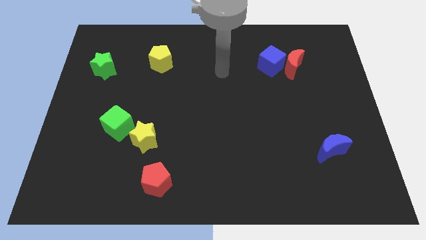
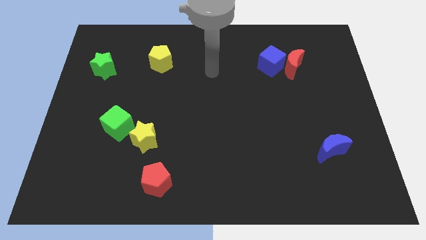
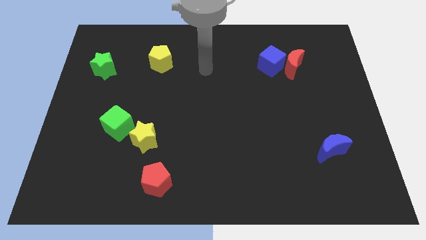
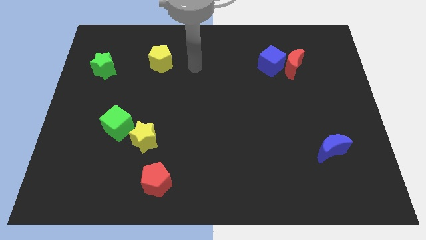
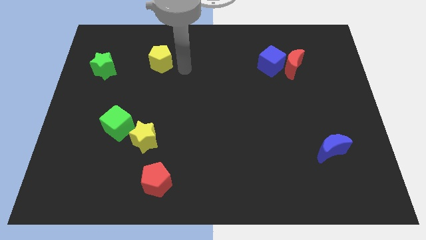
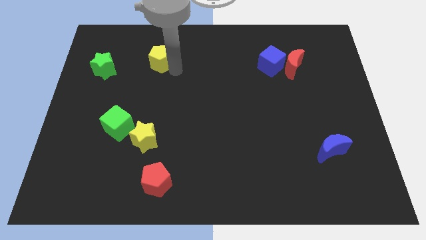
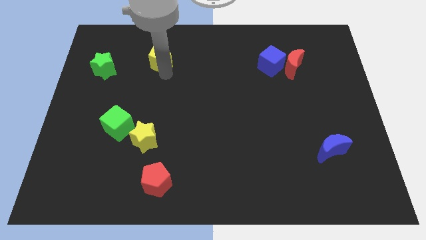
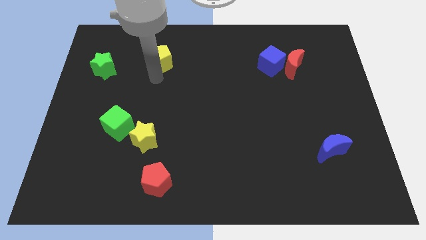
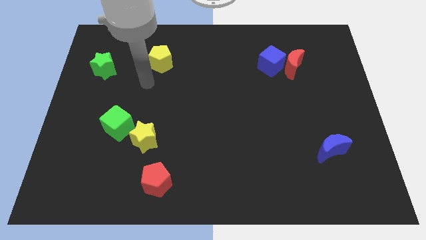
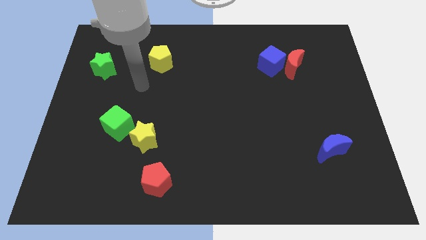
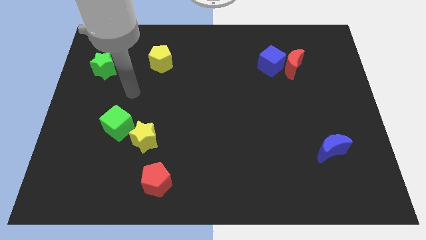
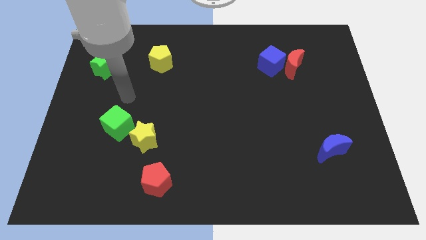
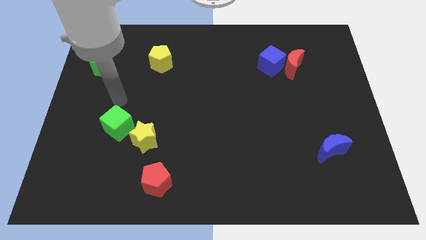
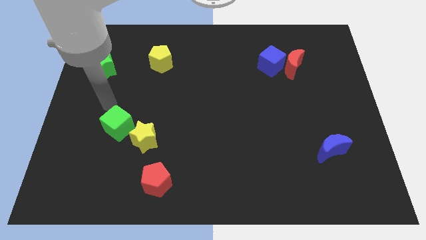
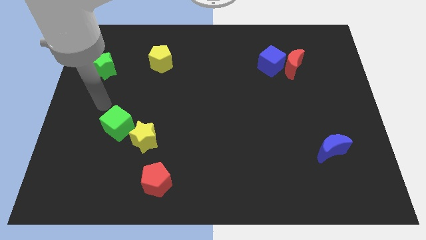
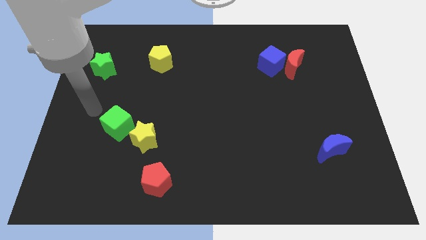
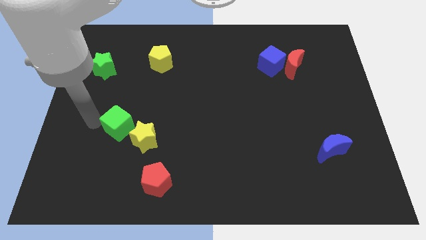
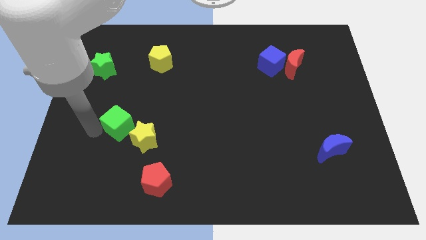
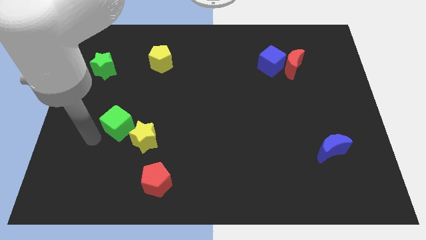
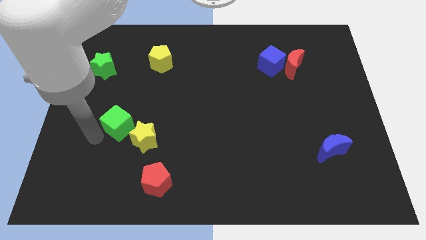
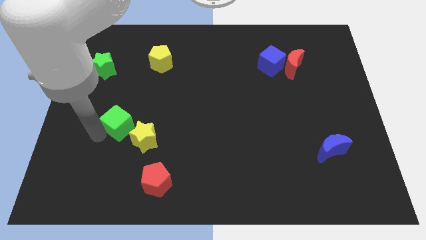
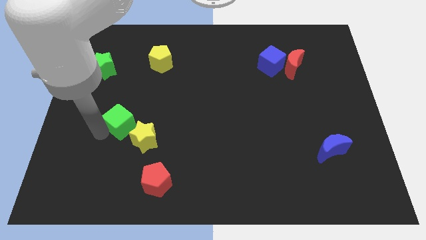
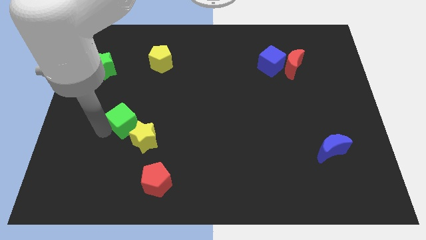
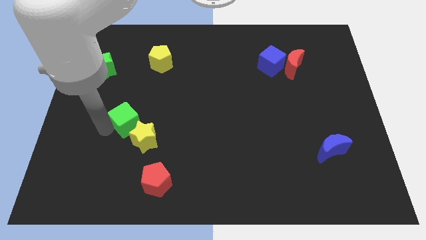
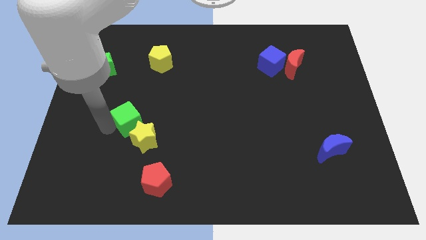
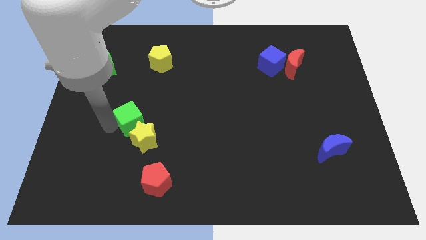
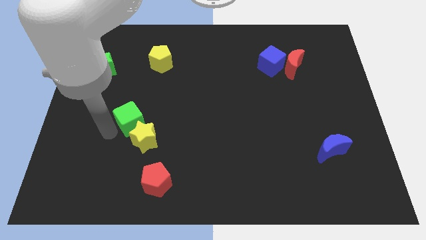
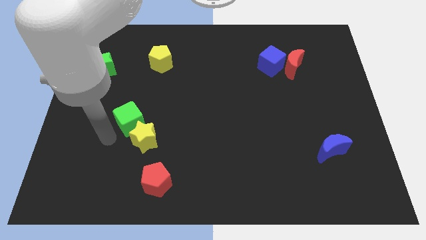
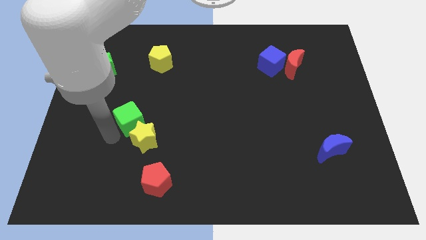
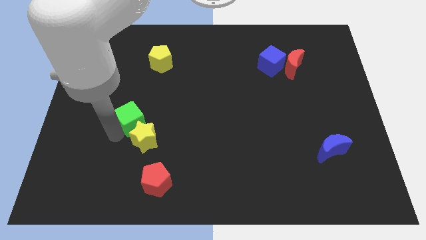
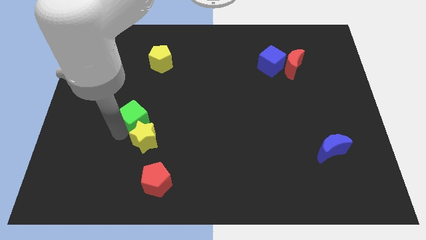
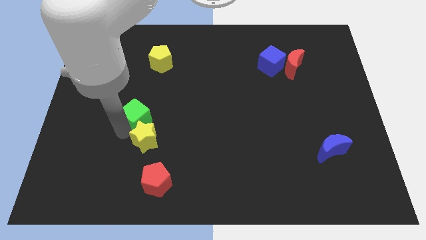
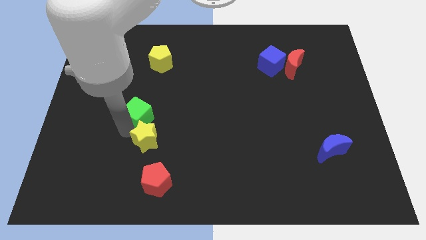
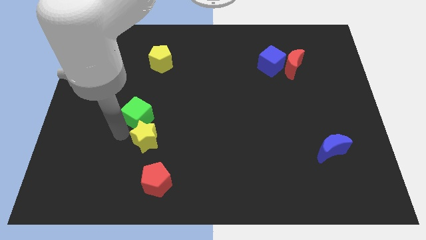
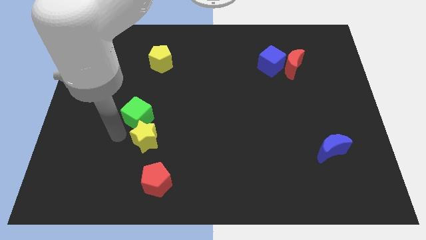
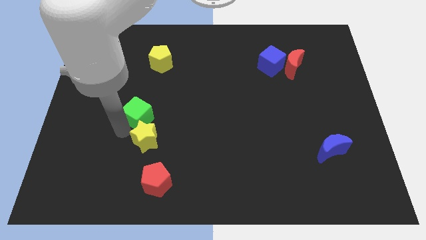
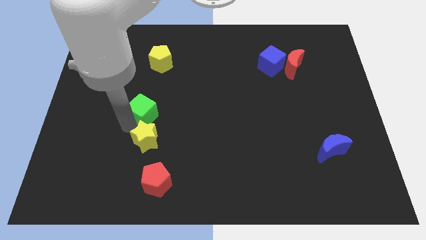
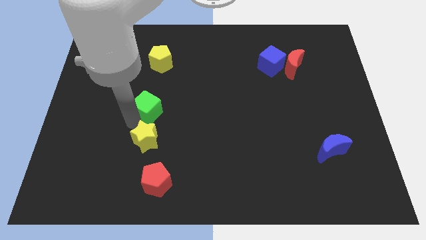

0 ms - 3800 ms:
slightly push the green cube diagonally up and right

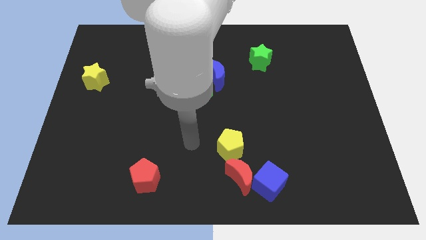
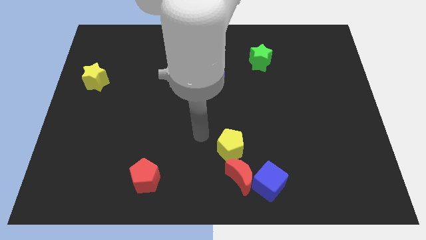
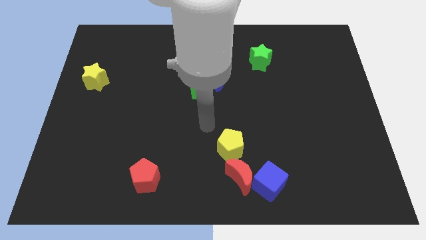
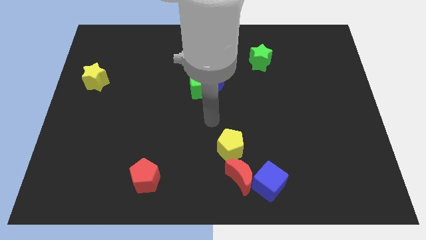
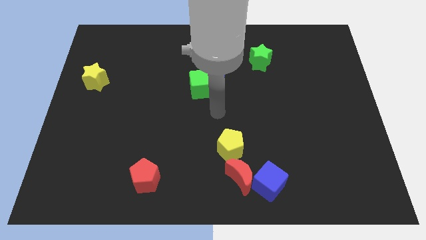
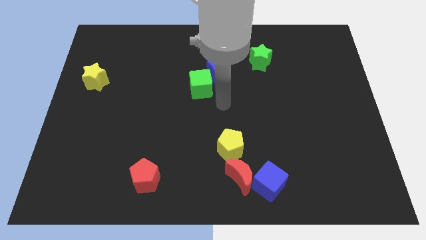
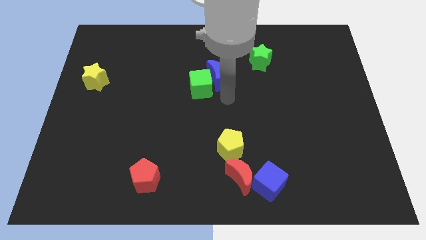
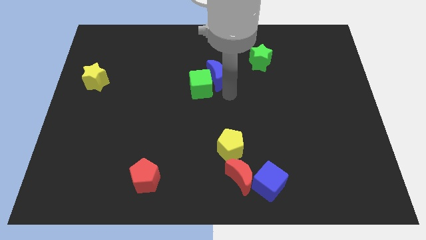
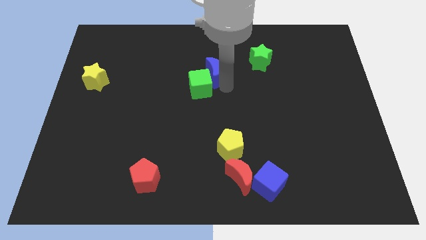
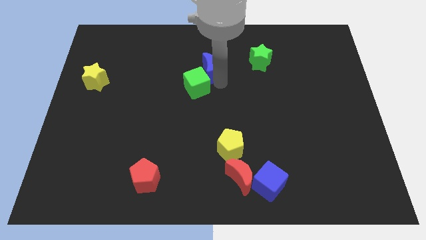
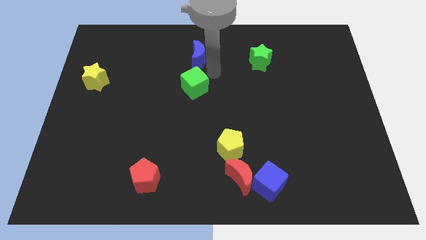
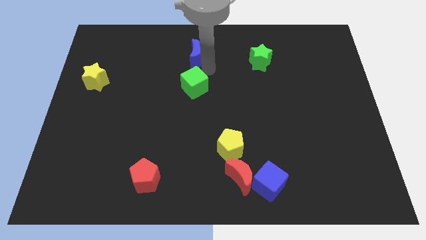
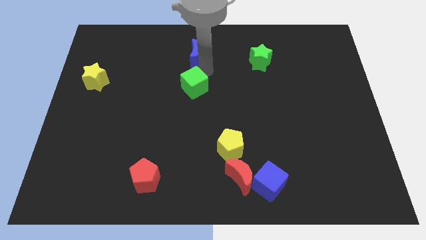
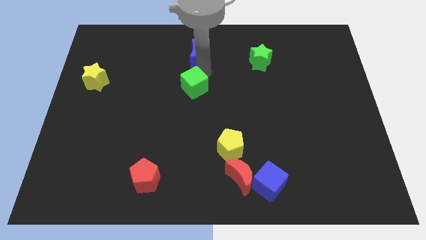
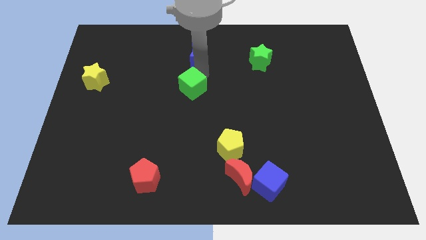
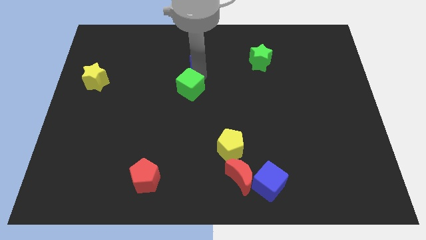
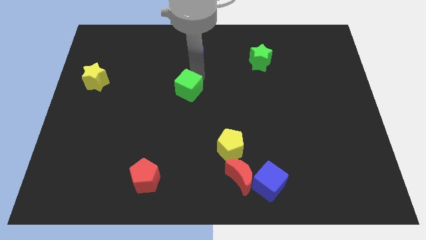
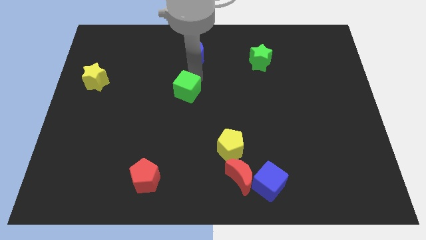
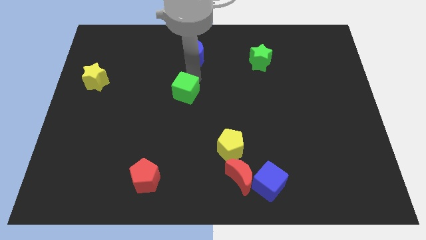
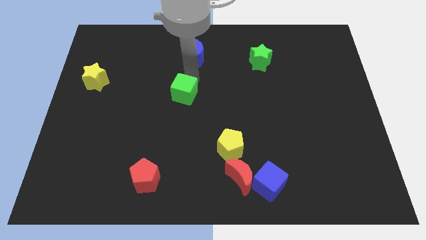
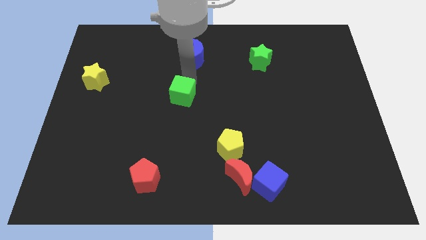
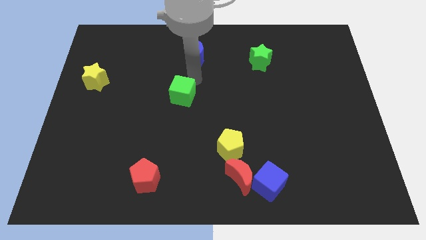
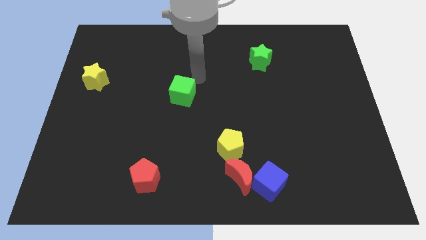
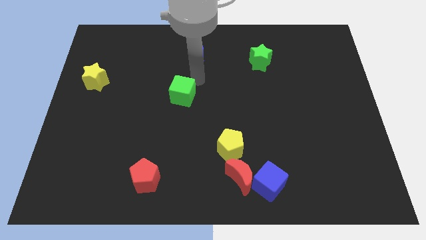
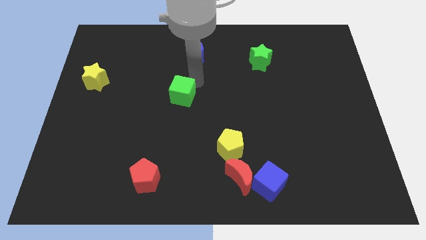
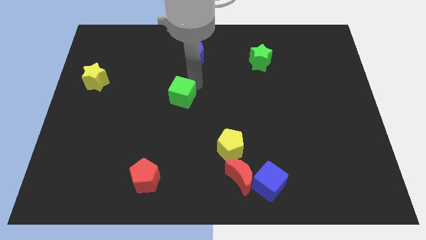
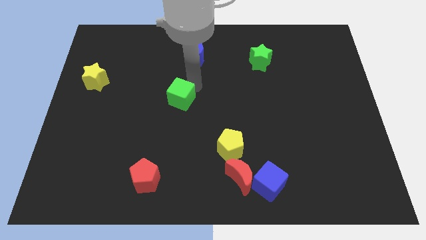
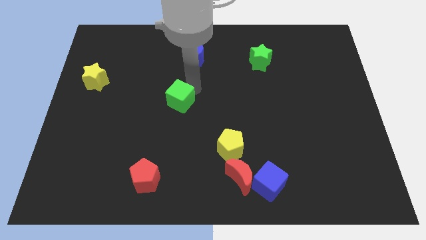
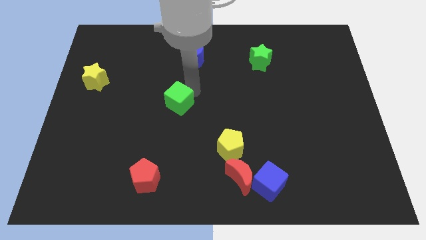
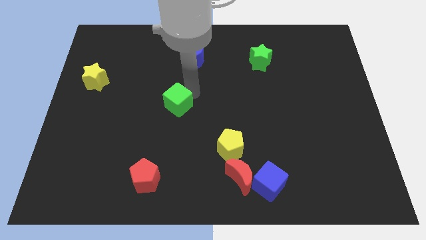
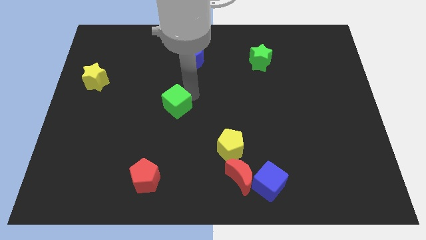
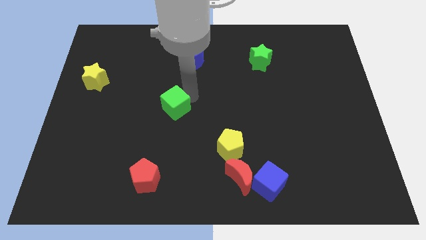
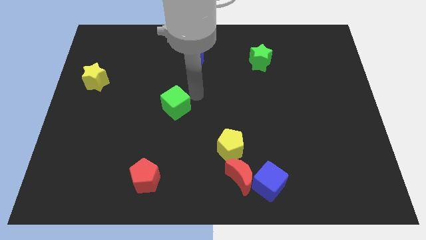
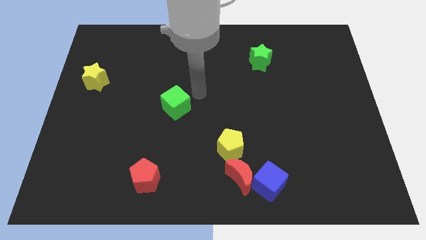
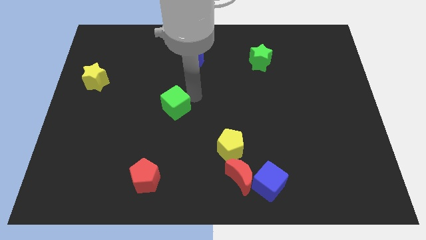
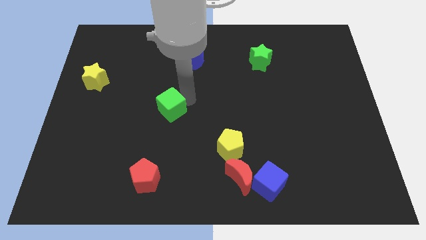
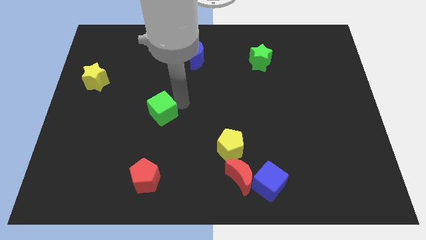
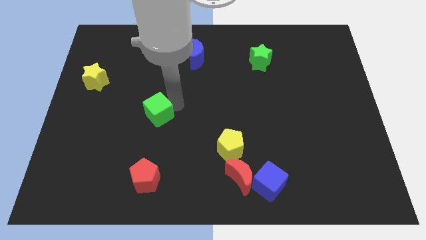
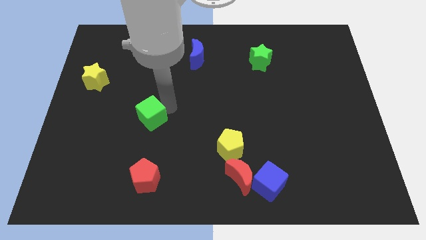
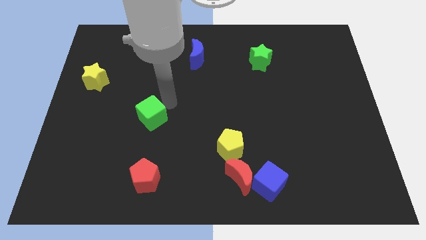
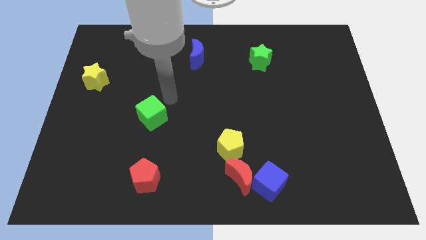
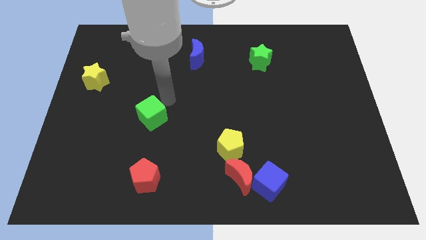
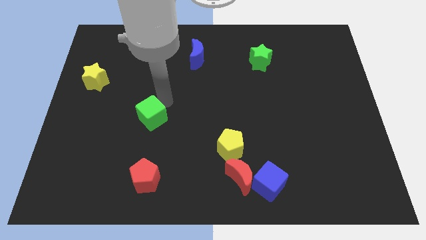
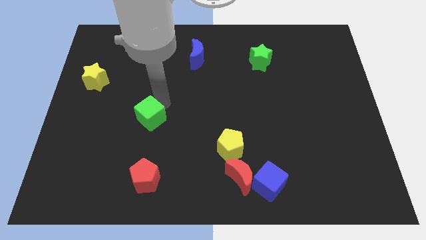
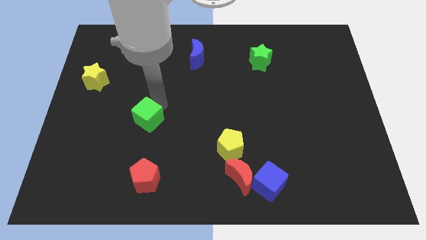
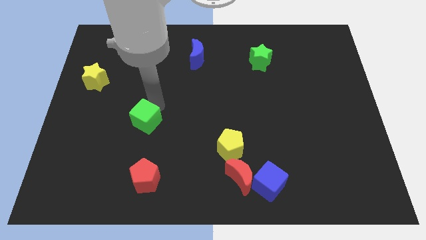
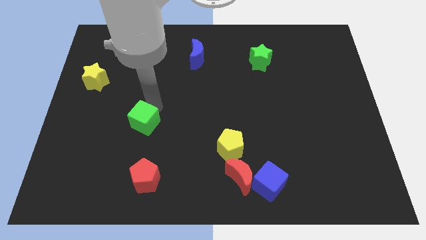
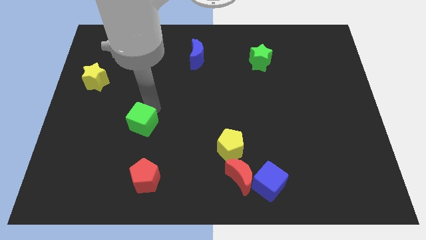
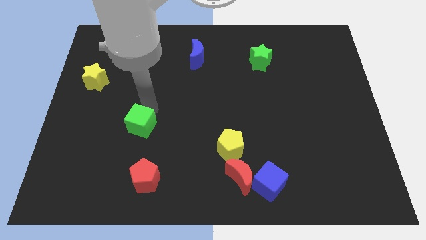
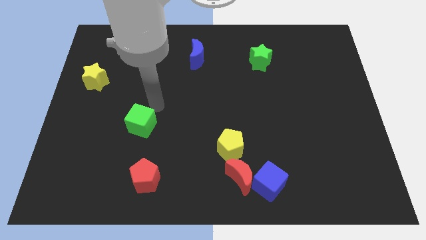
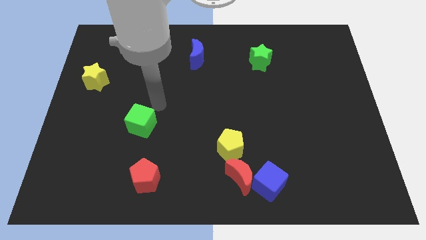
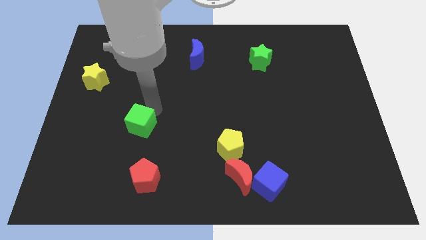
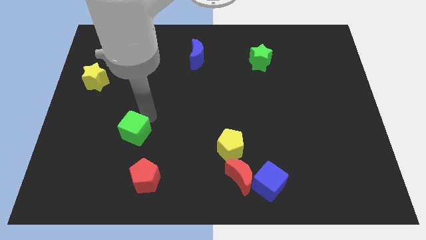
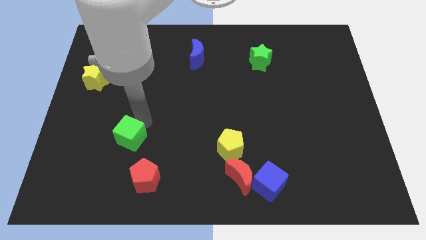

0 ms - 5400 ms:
slide the green cube down and left
